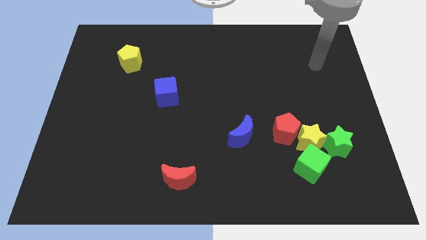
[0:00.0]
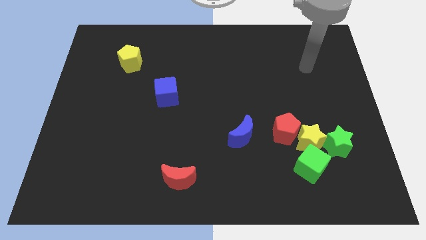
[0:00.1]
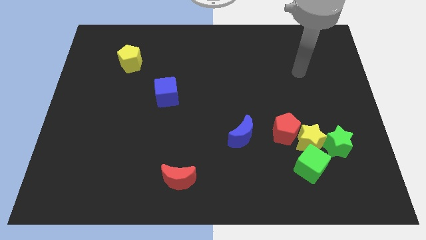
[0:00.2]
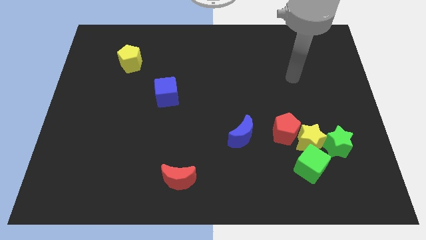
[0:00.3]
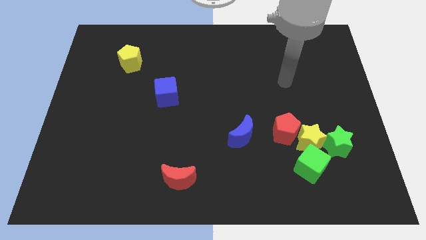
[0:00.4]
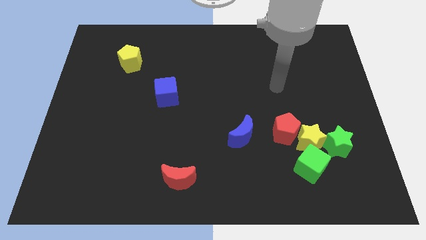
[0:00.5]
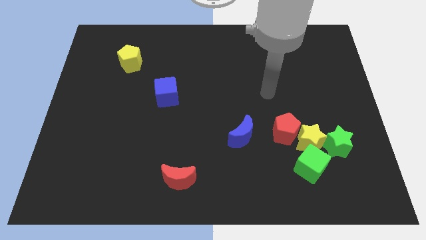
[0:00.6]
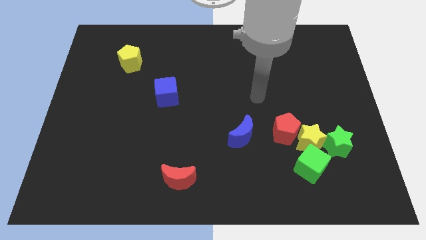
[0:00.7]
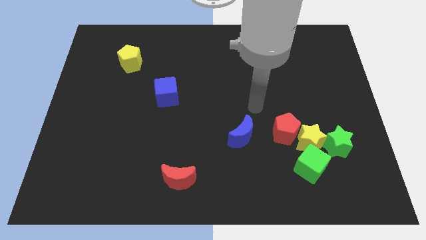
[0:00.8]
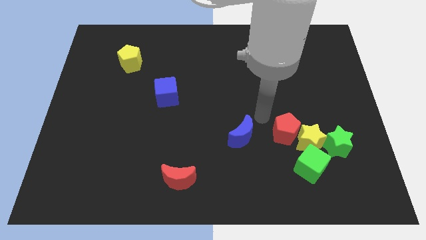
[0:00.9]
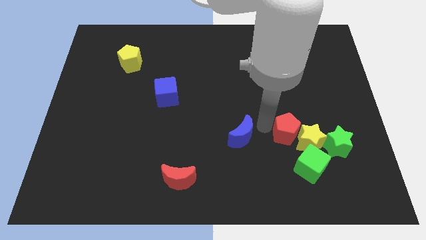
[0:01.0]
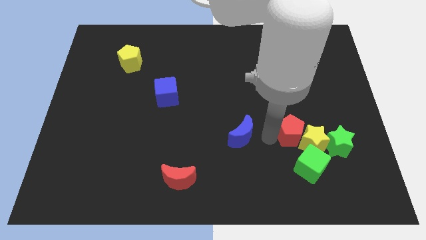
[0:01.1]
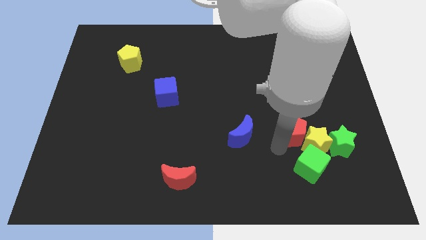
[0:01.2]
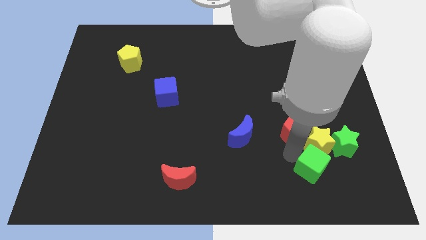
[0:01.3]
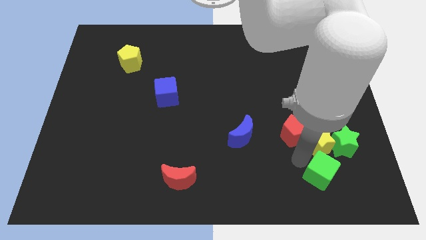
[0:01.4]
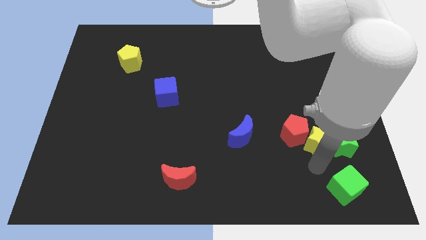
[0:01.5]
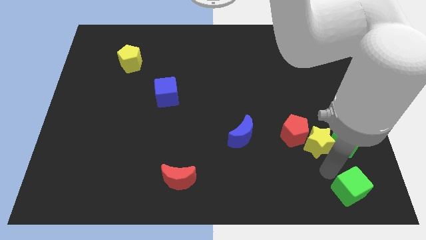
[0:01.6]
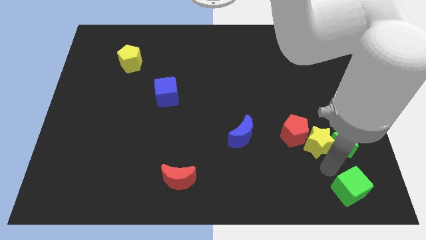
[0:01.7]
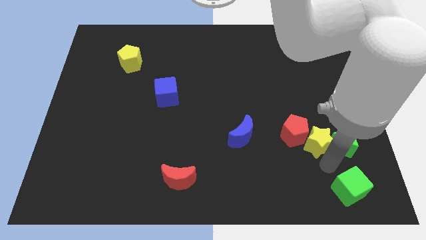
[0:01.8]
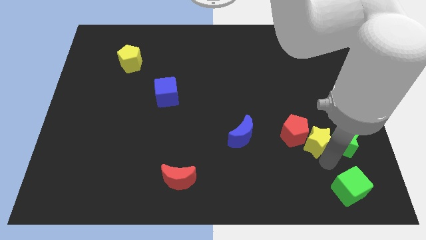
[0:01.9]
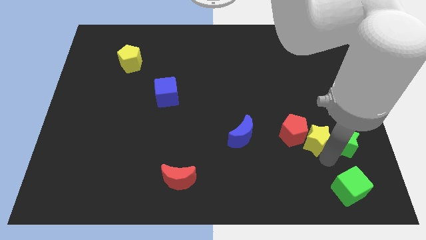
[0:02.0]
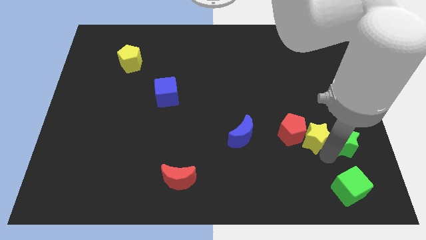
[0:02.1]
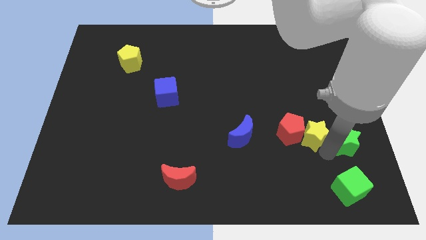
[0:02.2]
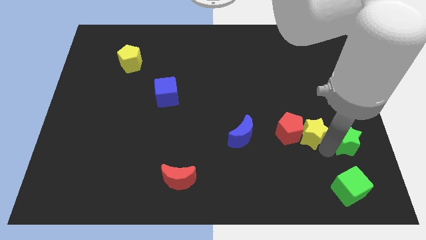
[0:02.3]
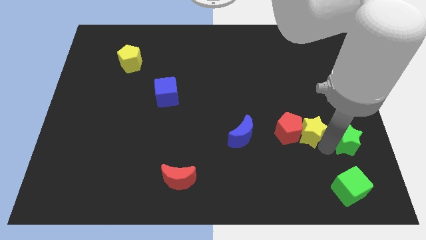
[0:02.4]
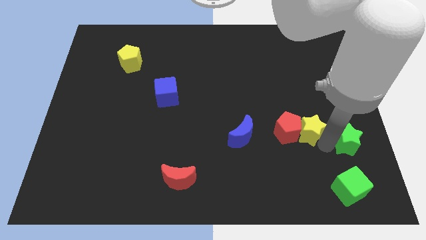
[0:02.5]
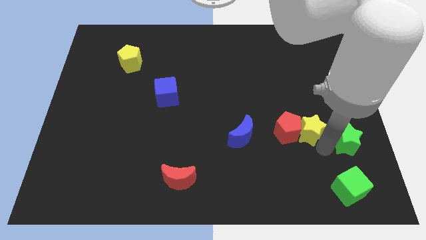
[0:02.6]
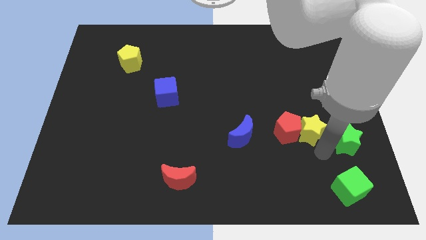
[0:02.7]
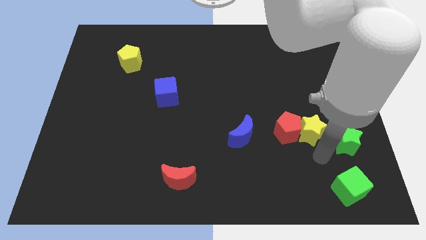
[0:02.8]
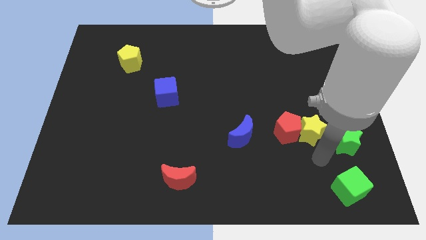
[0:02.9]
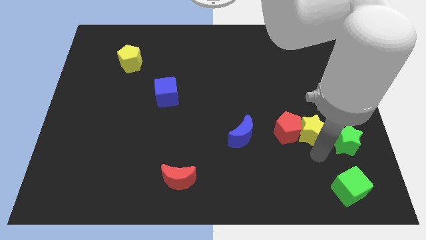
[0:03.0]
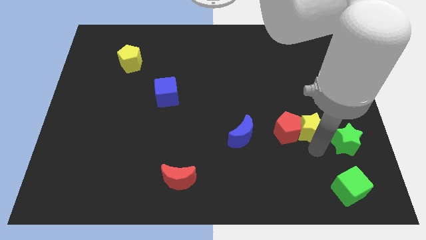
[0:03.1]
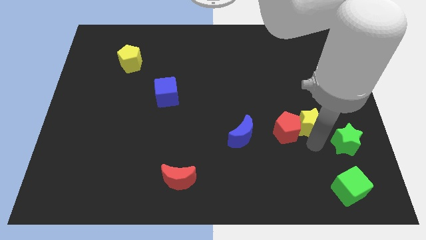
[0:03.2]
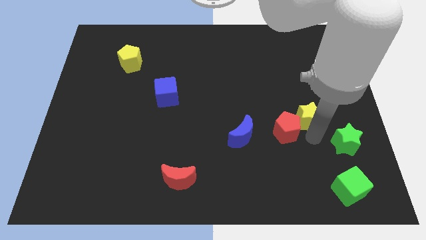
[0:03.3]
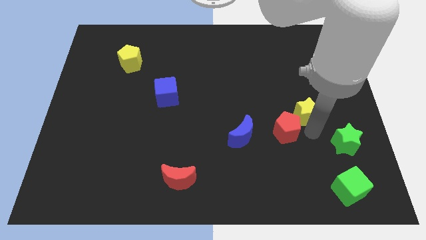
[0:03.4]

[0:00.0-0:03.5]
pull the yellow star apart from the red pentagon, green cube, and green star

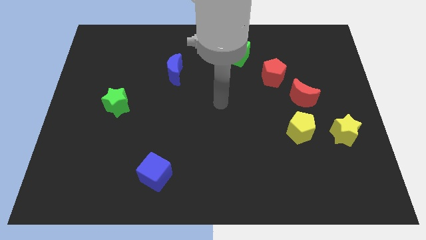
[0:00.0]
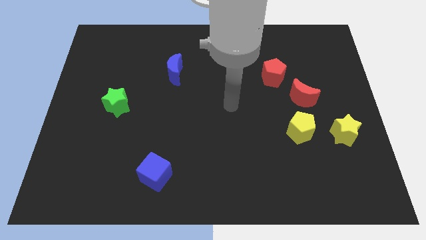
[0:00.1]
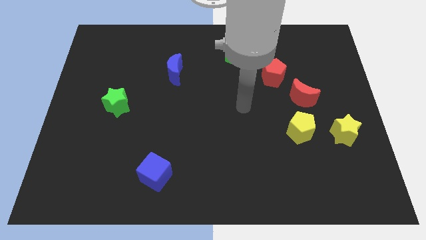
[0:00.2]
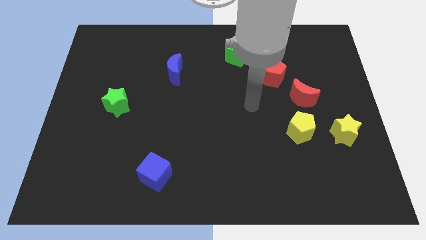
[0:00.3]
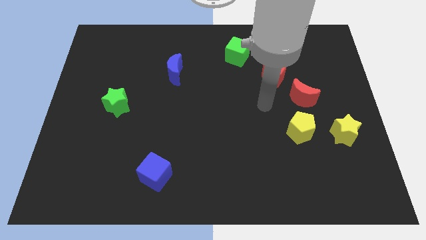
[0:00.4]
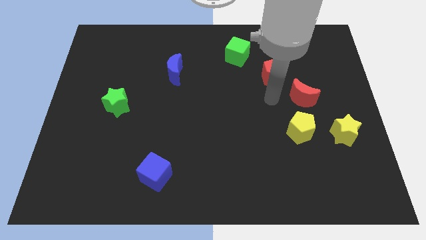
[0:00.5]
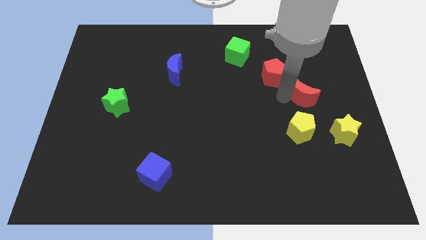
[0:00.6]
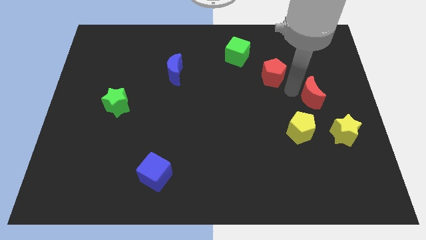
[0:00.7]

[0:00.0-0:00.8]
move the red pentagon away from the red moon

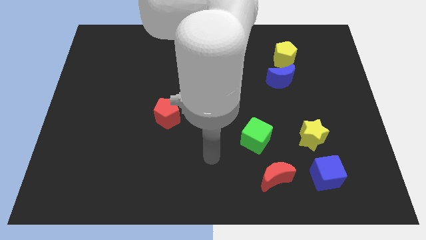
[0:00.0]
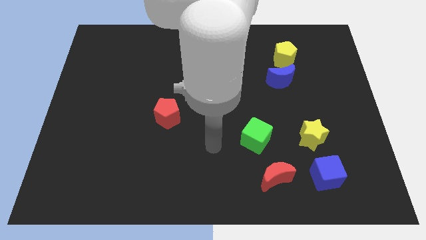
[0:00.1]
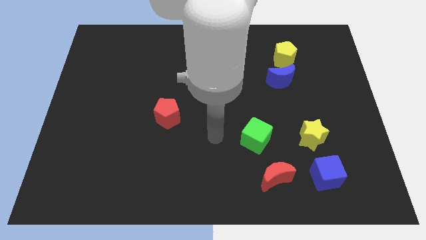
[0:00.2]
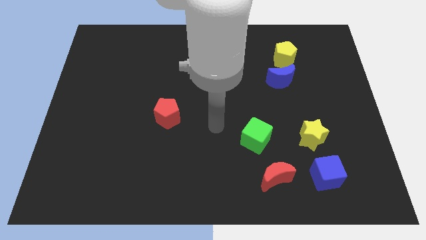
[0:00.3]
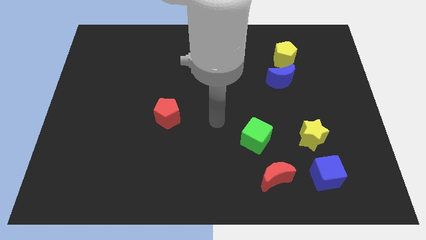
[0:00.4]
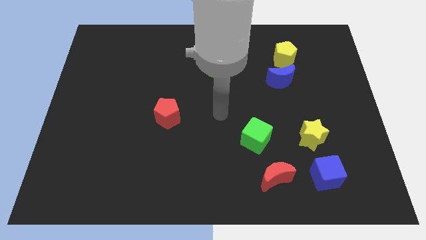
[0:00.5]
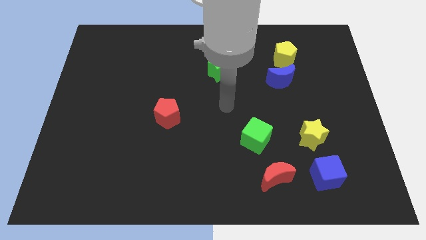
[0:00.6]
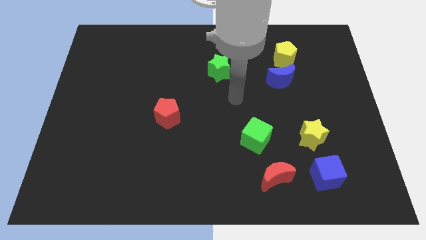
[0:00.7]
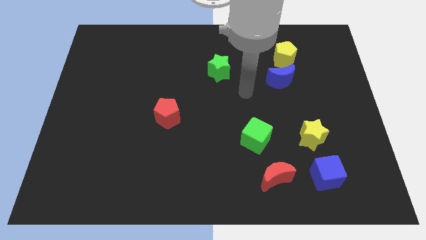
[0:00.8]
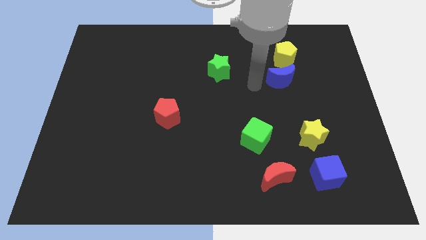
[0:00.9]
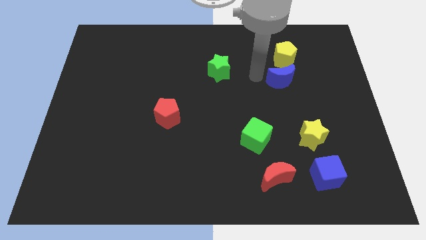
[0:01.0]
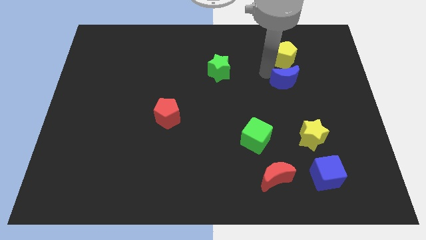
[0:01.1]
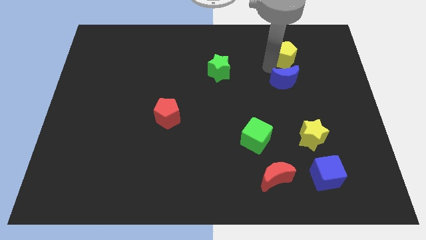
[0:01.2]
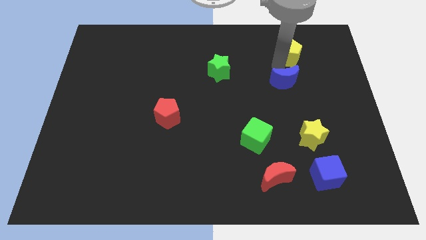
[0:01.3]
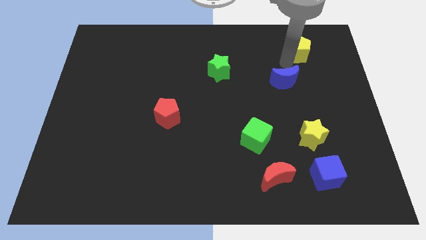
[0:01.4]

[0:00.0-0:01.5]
pull the blue moon apart from the yellow pentagon

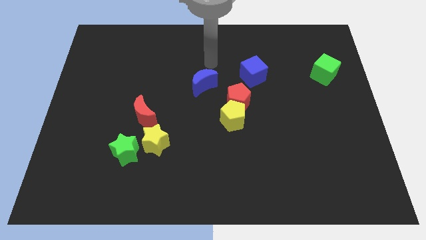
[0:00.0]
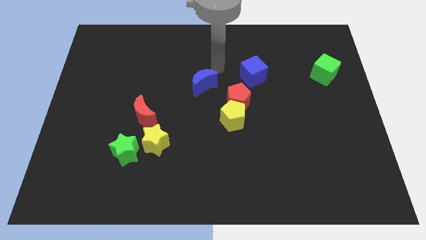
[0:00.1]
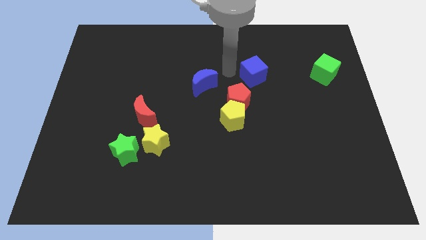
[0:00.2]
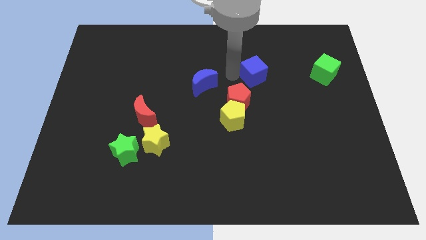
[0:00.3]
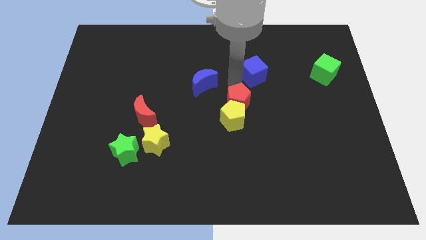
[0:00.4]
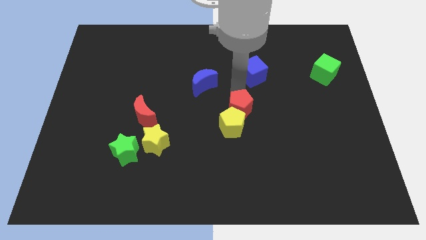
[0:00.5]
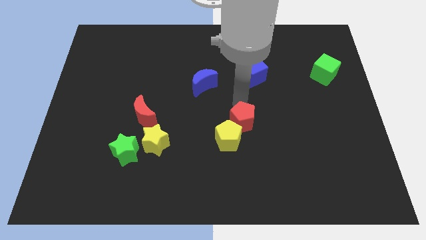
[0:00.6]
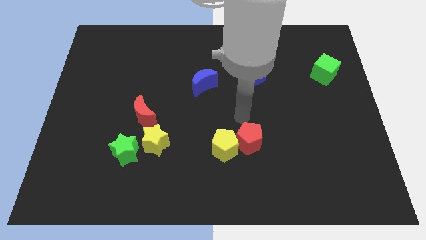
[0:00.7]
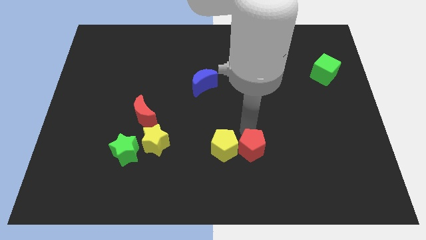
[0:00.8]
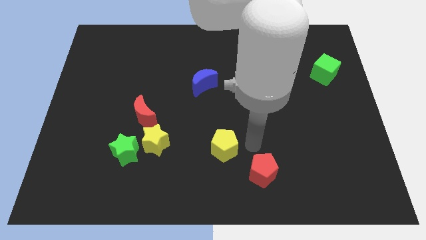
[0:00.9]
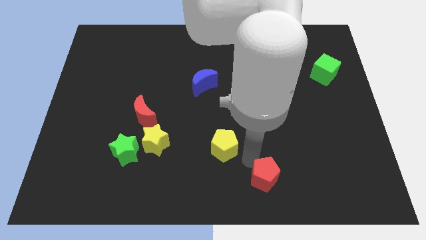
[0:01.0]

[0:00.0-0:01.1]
separate the yellow pentagon from the red pentagon

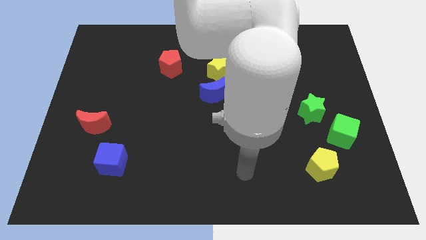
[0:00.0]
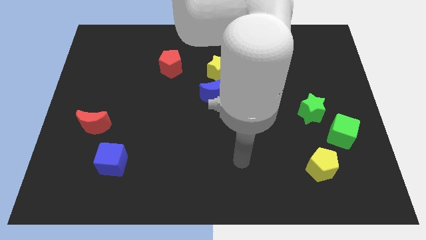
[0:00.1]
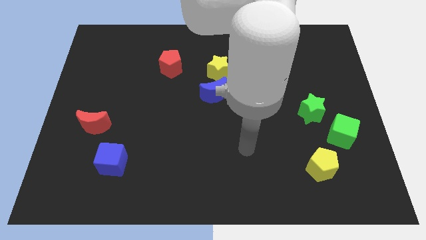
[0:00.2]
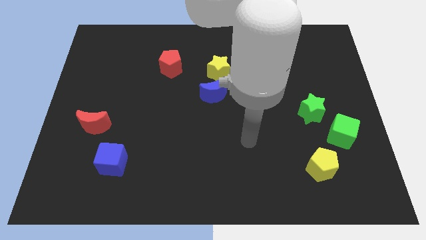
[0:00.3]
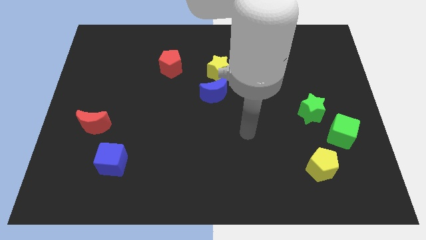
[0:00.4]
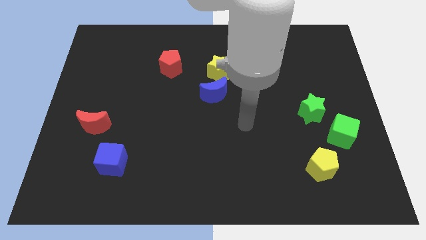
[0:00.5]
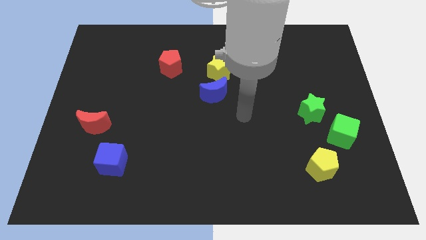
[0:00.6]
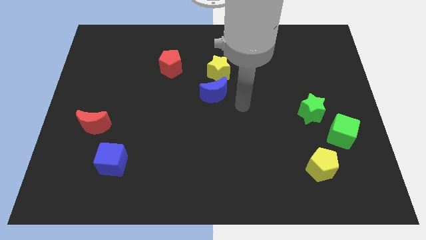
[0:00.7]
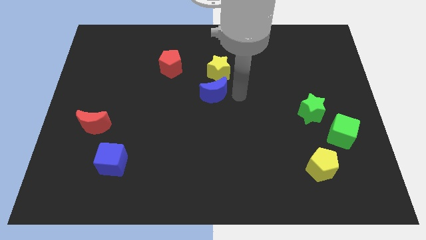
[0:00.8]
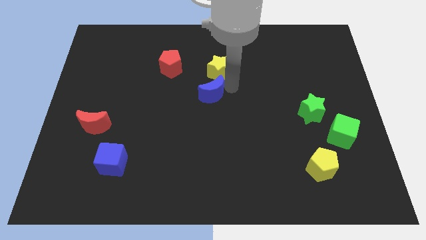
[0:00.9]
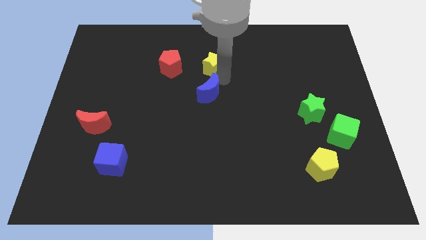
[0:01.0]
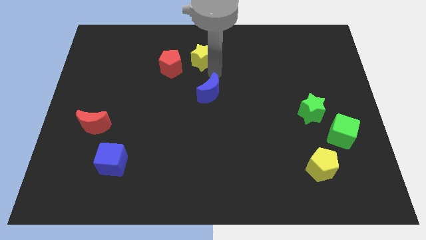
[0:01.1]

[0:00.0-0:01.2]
separate the blue moon from the yellow star

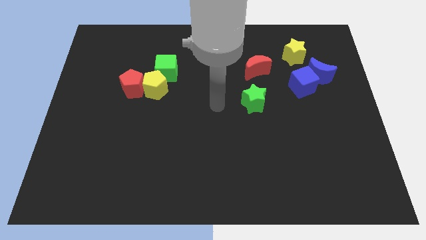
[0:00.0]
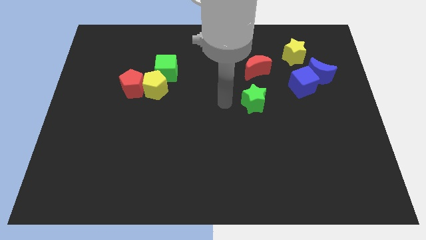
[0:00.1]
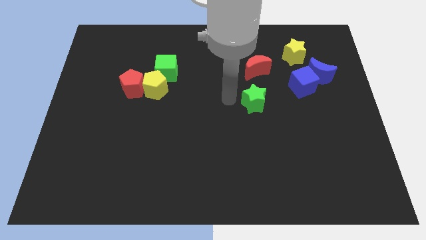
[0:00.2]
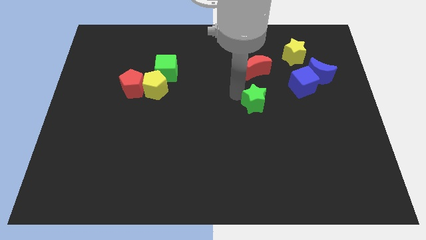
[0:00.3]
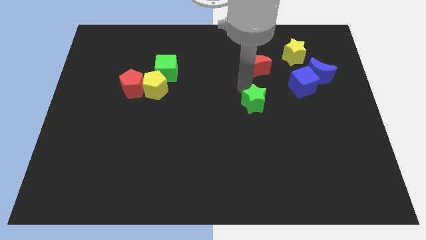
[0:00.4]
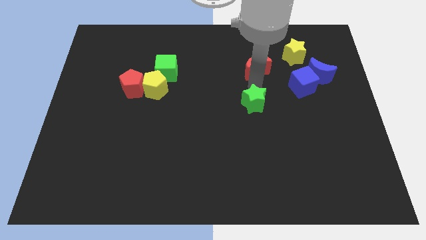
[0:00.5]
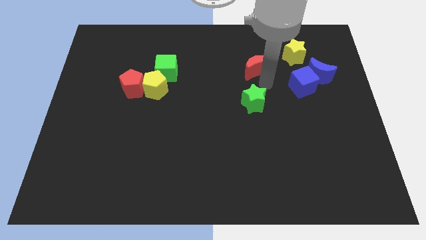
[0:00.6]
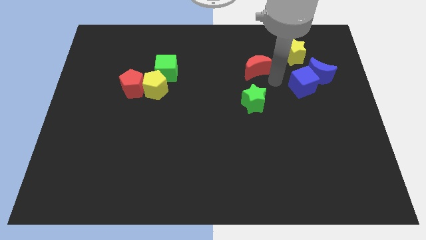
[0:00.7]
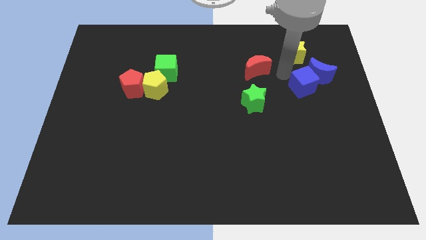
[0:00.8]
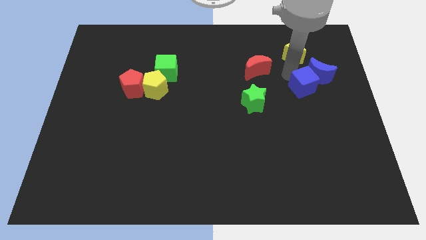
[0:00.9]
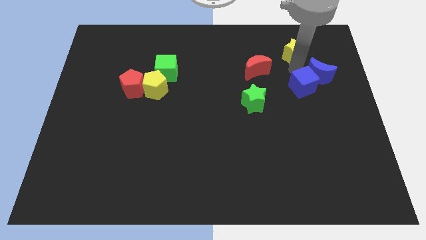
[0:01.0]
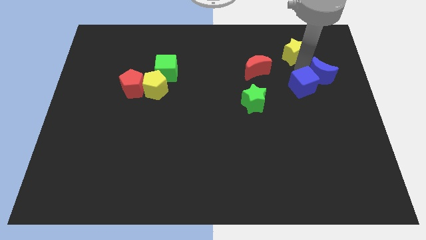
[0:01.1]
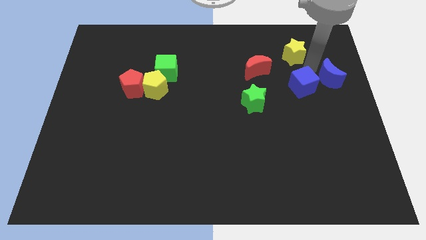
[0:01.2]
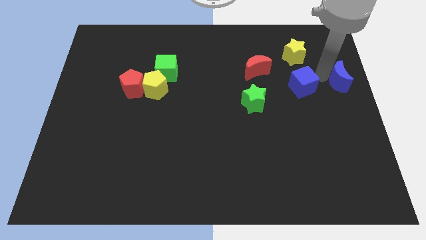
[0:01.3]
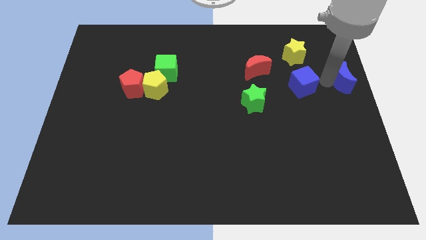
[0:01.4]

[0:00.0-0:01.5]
pull the blue cube apart from the blue moon
